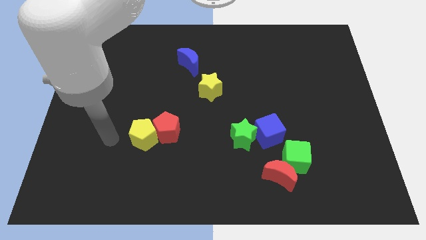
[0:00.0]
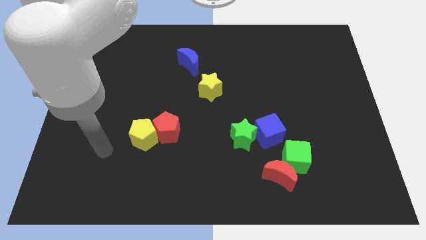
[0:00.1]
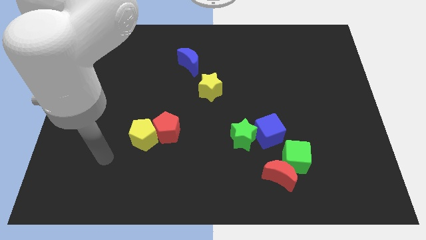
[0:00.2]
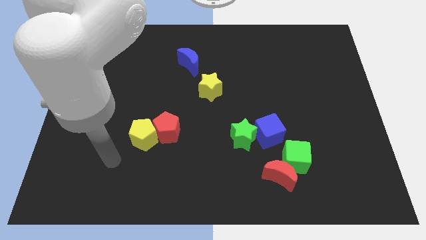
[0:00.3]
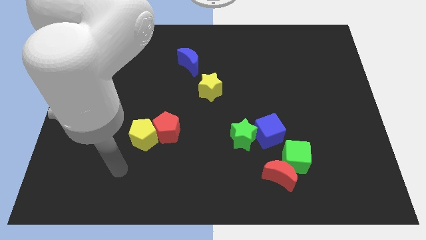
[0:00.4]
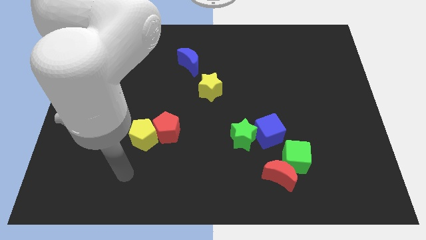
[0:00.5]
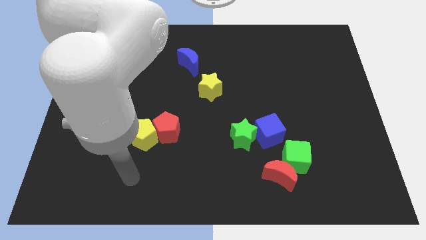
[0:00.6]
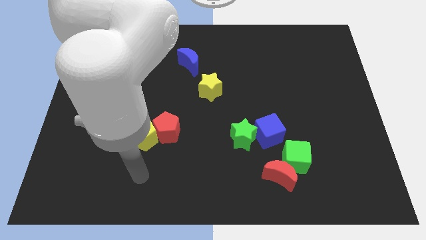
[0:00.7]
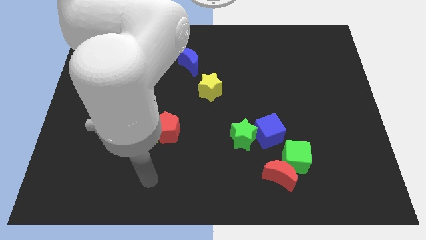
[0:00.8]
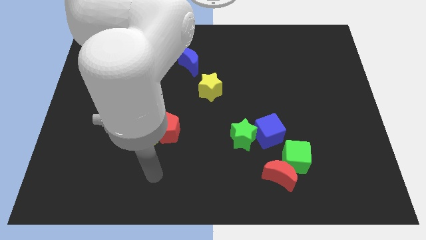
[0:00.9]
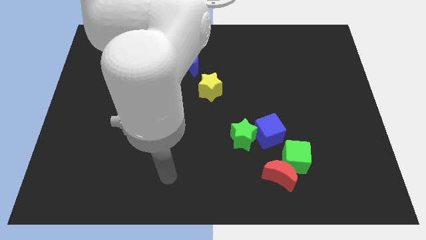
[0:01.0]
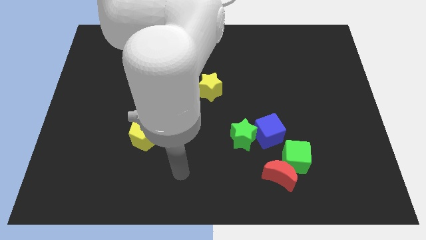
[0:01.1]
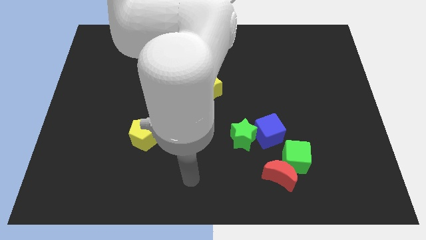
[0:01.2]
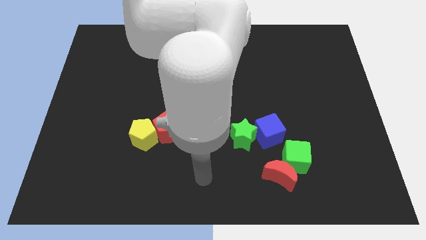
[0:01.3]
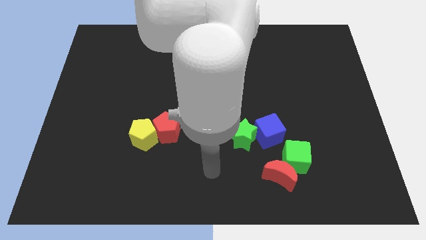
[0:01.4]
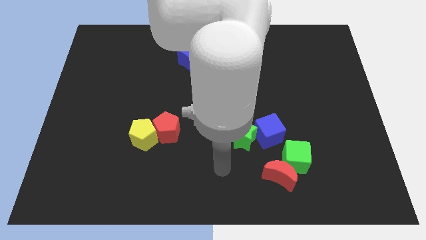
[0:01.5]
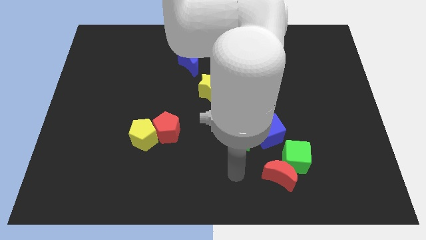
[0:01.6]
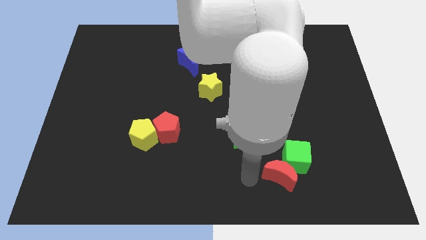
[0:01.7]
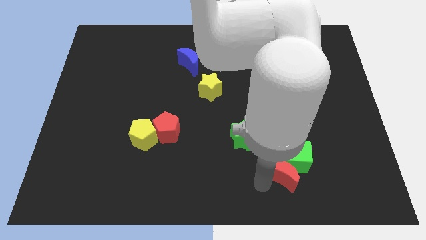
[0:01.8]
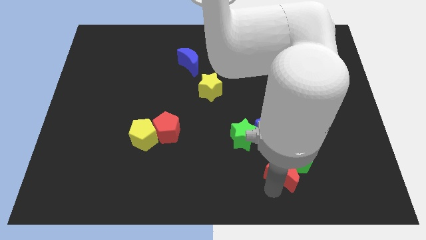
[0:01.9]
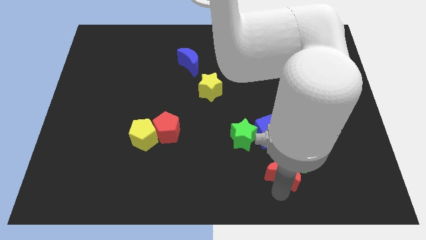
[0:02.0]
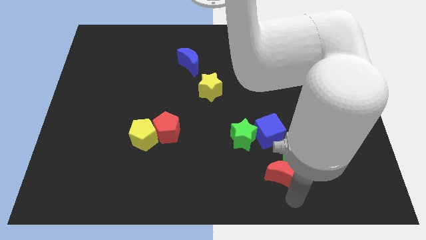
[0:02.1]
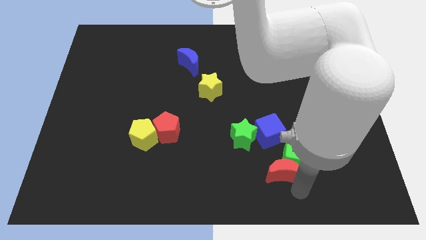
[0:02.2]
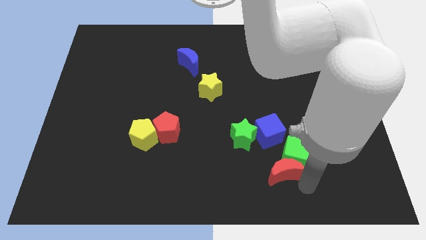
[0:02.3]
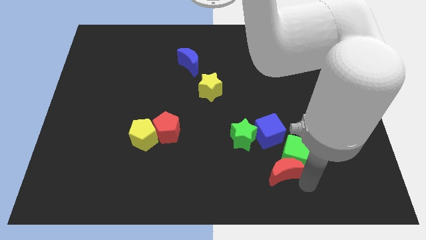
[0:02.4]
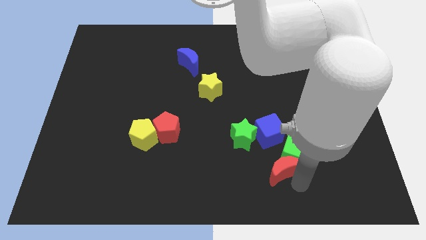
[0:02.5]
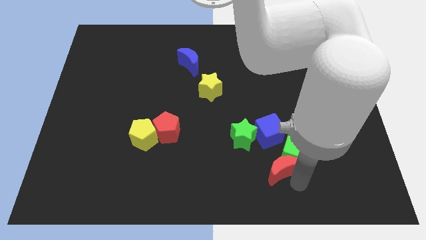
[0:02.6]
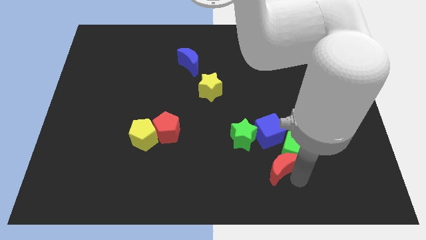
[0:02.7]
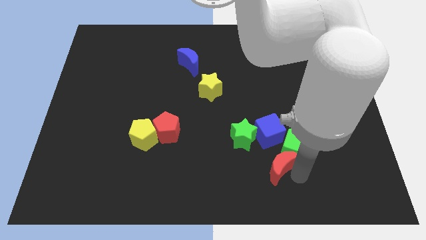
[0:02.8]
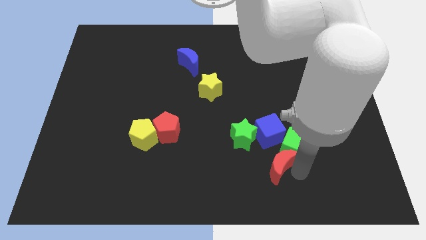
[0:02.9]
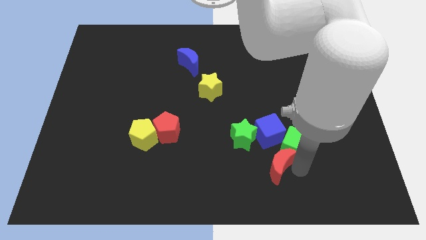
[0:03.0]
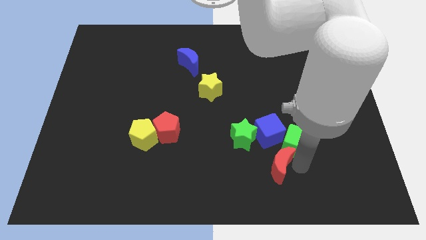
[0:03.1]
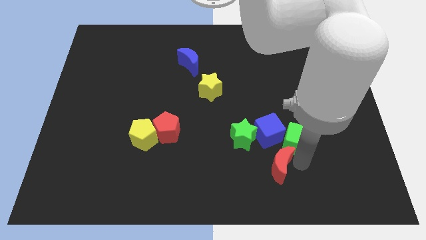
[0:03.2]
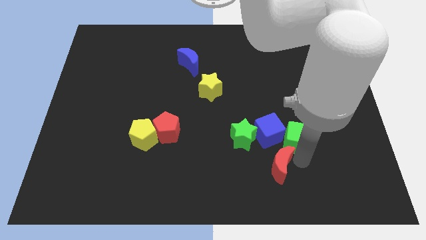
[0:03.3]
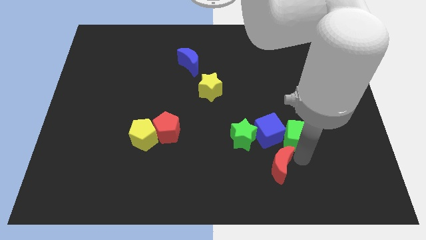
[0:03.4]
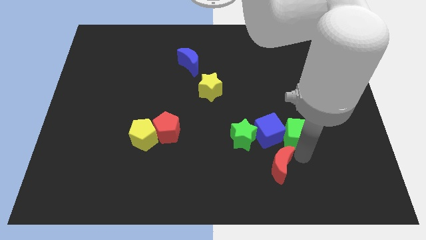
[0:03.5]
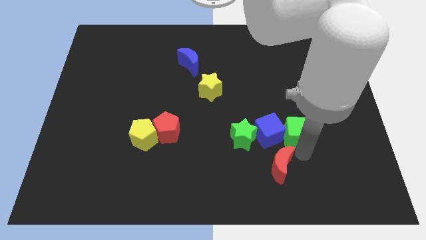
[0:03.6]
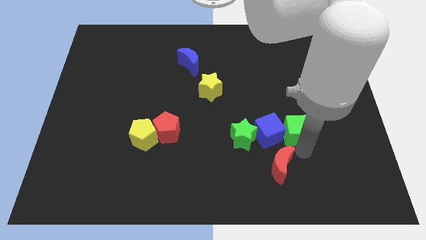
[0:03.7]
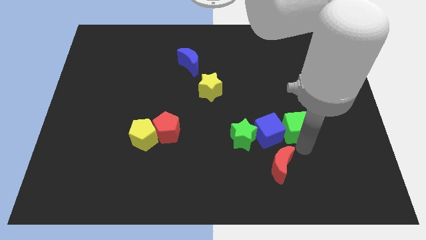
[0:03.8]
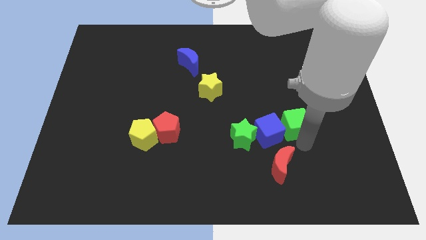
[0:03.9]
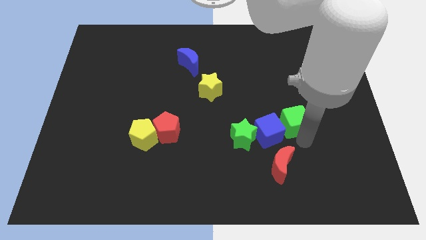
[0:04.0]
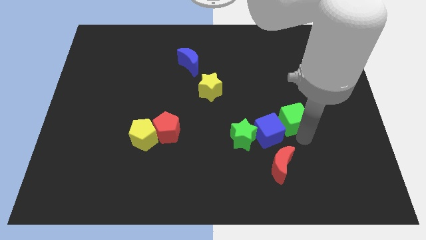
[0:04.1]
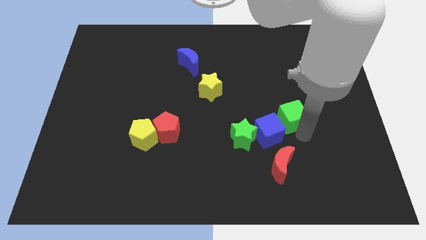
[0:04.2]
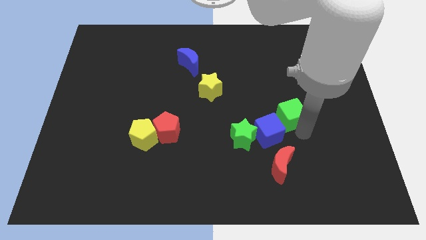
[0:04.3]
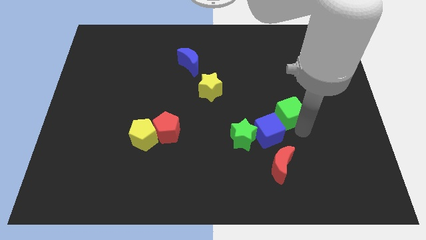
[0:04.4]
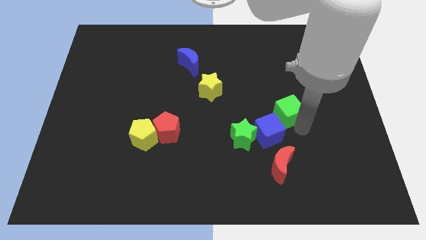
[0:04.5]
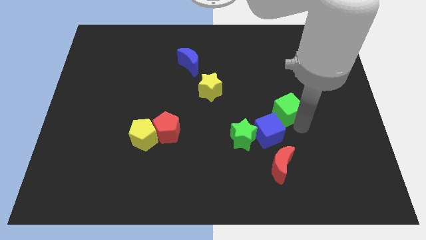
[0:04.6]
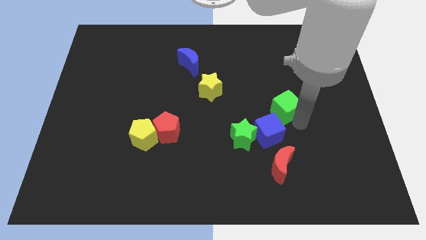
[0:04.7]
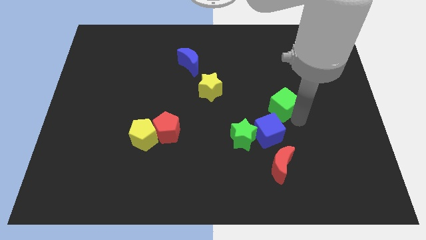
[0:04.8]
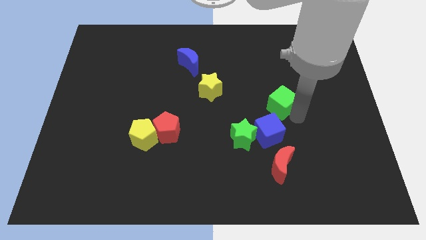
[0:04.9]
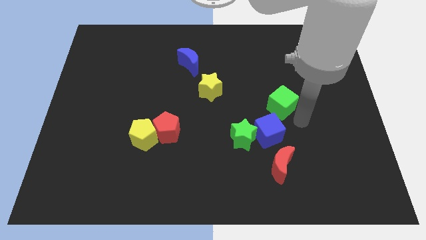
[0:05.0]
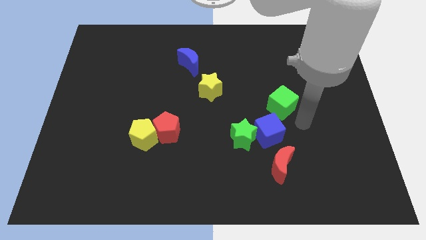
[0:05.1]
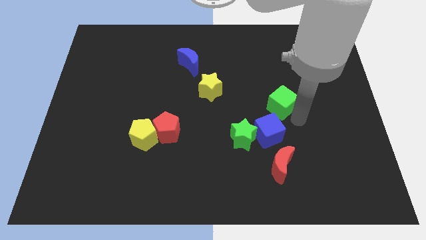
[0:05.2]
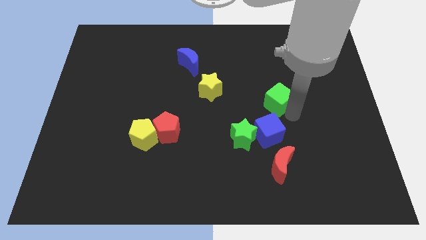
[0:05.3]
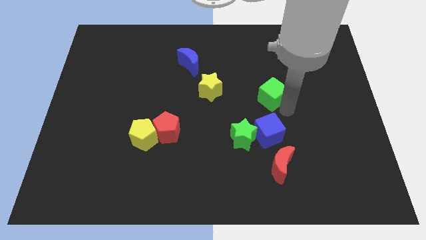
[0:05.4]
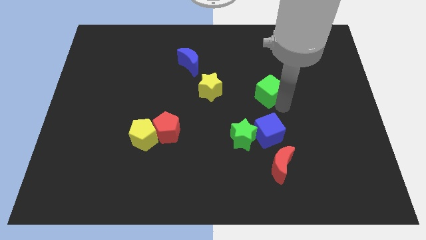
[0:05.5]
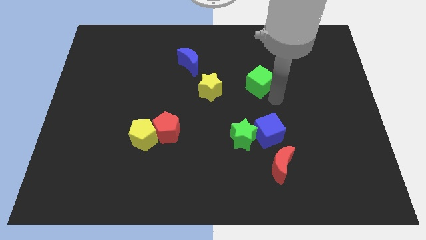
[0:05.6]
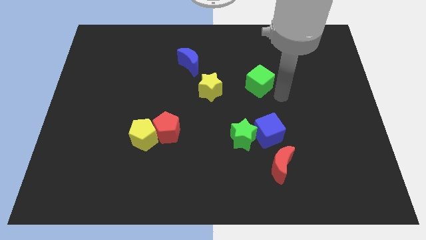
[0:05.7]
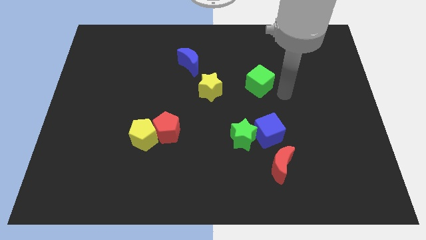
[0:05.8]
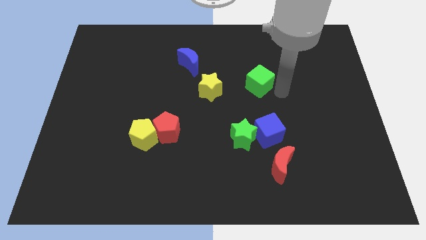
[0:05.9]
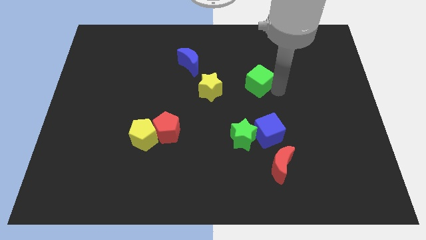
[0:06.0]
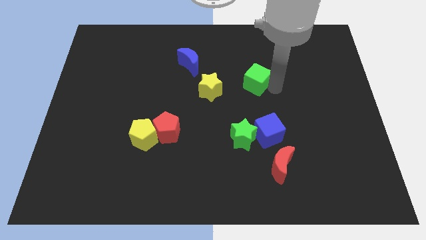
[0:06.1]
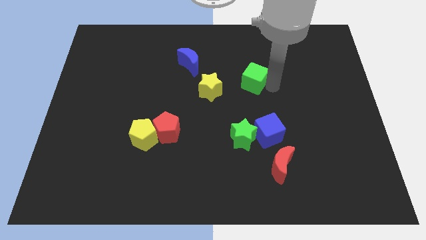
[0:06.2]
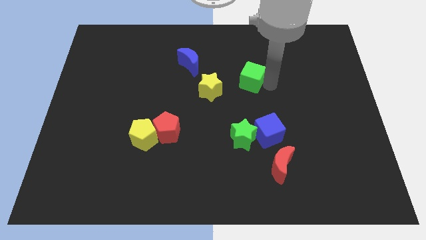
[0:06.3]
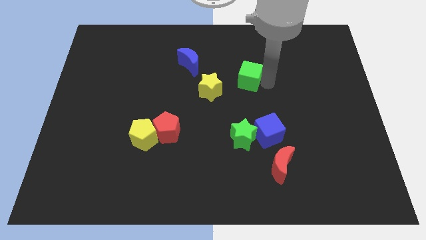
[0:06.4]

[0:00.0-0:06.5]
put the green cube to the top right of the yellow star

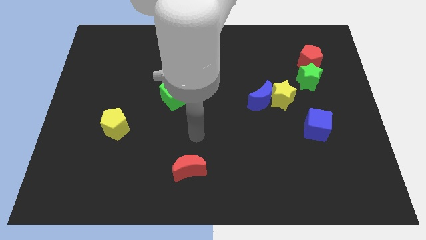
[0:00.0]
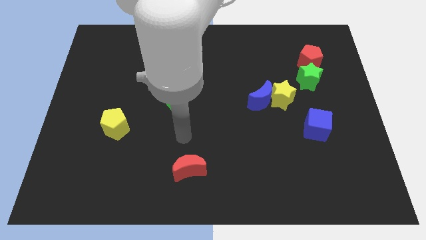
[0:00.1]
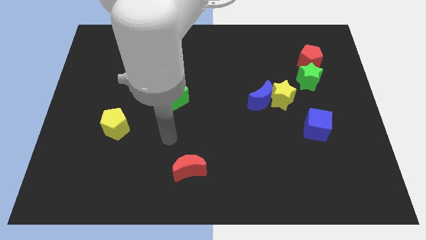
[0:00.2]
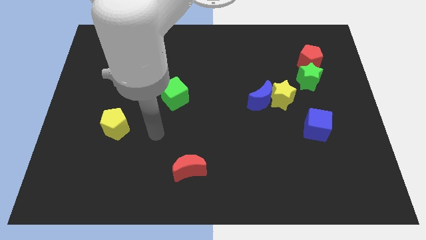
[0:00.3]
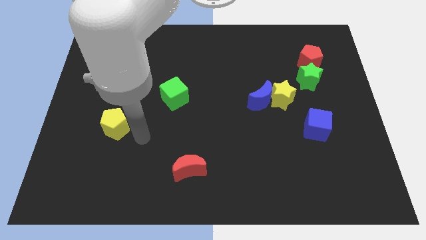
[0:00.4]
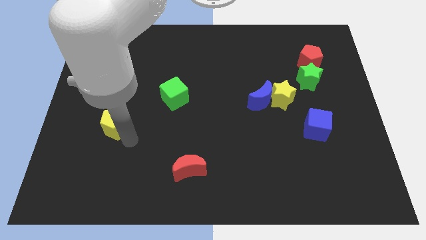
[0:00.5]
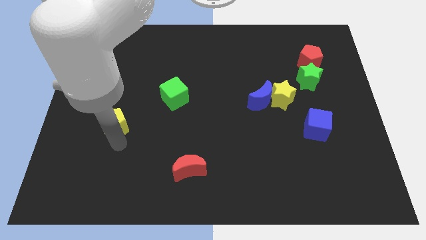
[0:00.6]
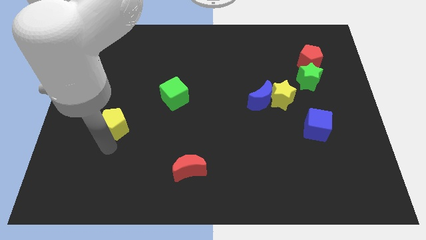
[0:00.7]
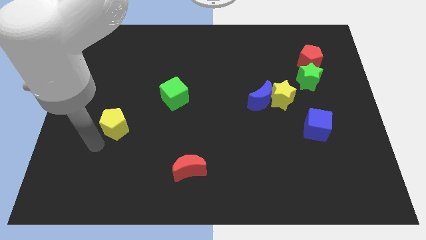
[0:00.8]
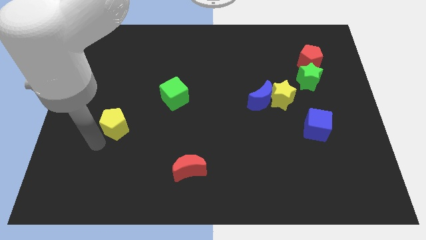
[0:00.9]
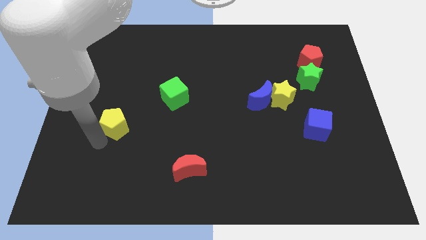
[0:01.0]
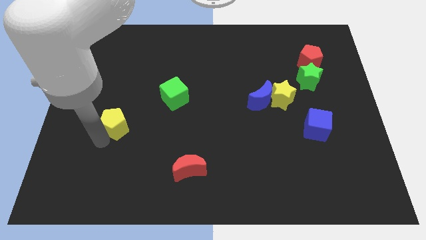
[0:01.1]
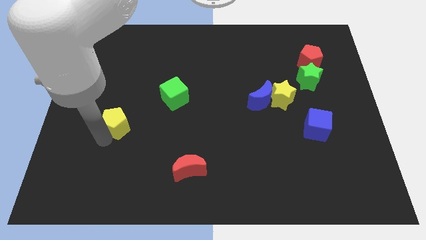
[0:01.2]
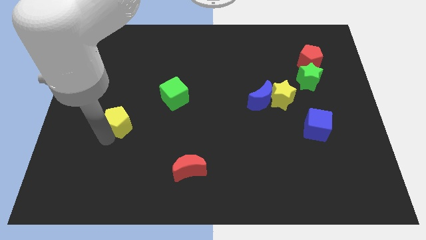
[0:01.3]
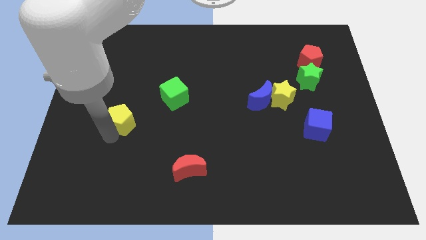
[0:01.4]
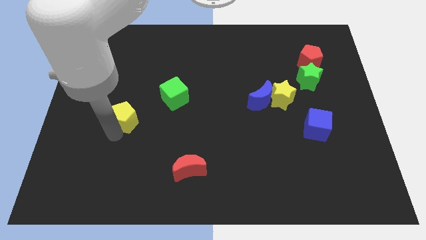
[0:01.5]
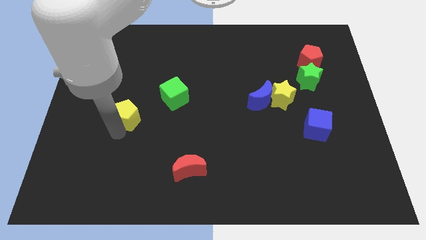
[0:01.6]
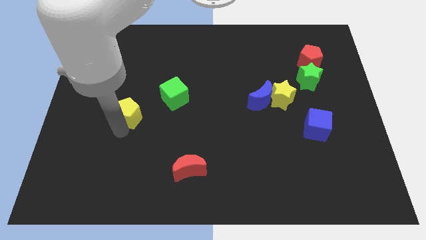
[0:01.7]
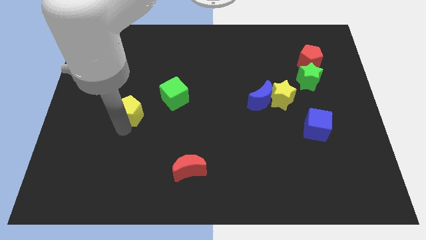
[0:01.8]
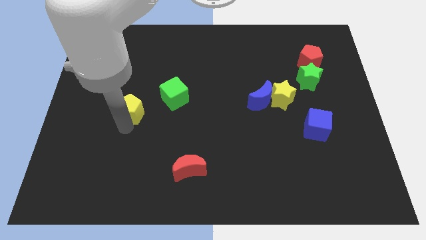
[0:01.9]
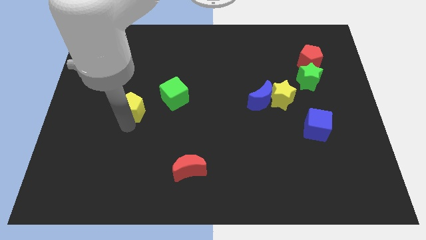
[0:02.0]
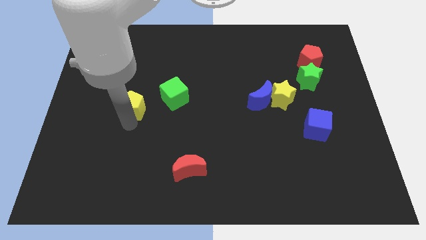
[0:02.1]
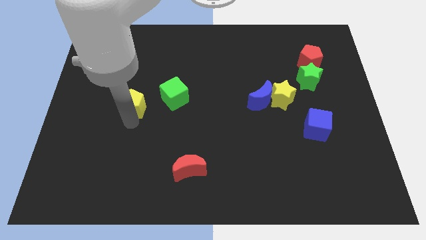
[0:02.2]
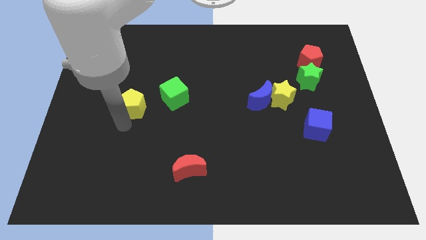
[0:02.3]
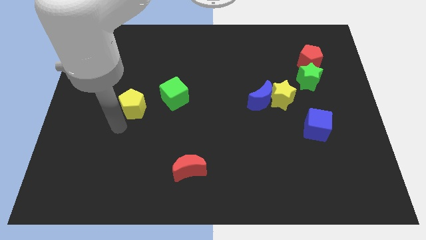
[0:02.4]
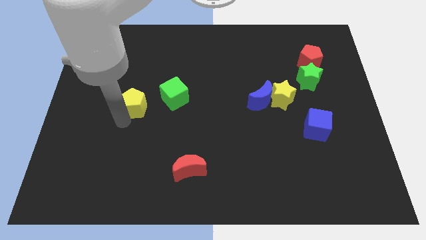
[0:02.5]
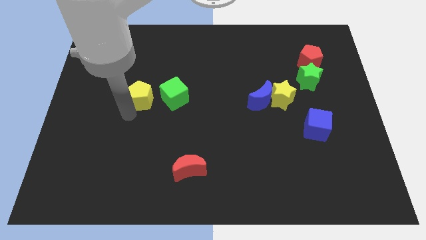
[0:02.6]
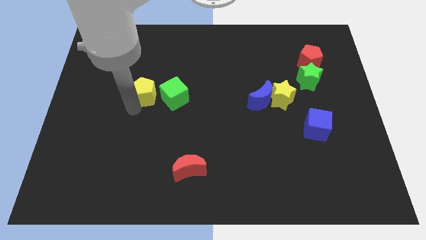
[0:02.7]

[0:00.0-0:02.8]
slide the yellow pentagon to the top left side of the green cube
